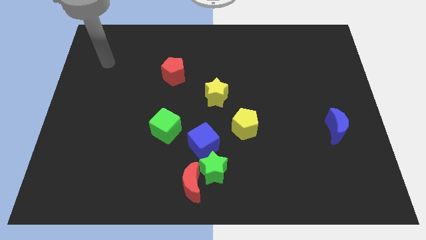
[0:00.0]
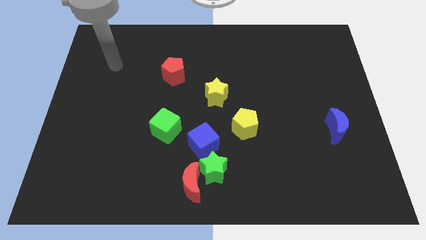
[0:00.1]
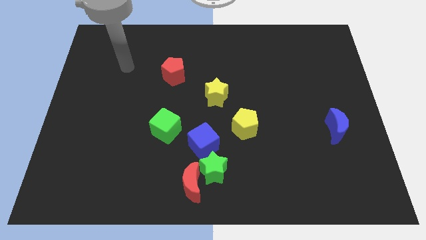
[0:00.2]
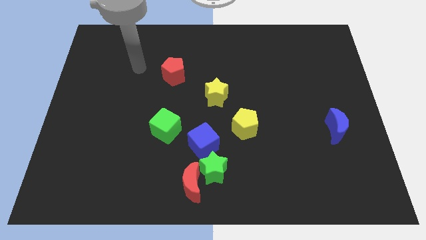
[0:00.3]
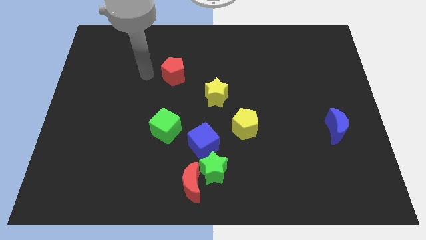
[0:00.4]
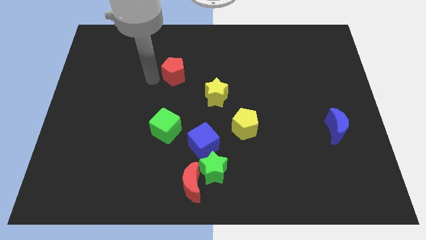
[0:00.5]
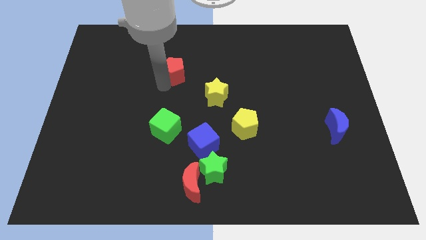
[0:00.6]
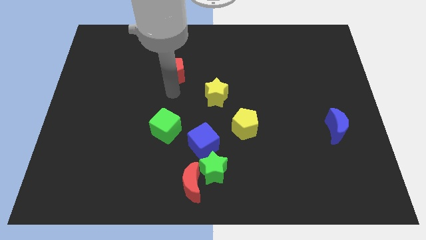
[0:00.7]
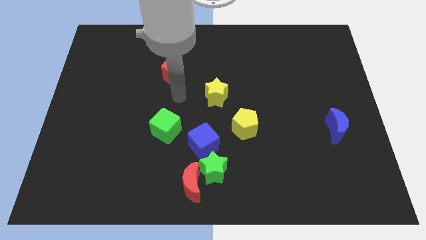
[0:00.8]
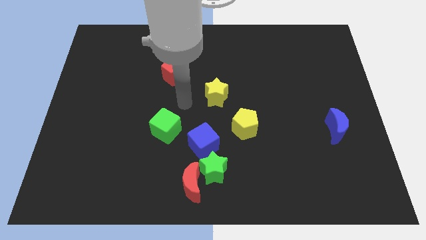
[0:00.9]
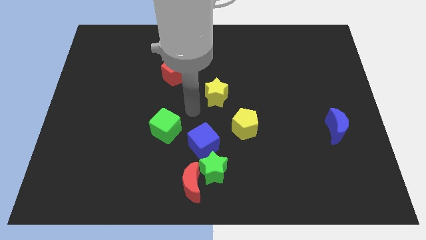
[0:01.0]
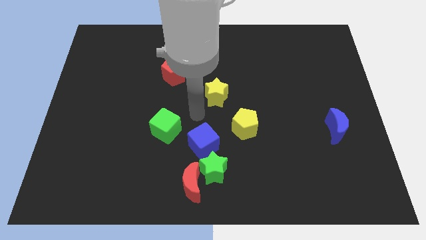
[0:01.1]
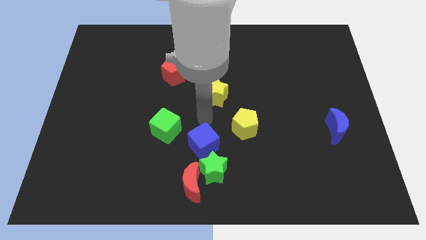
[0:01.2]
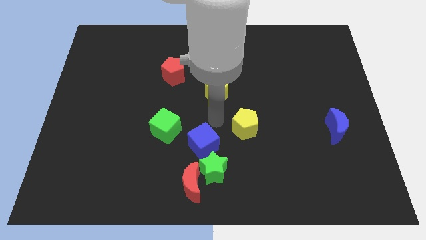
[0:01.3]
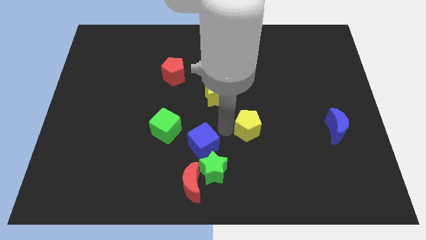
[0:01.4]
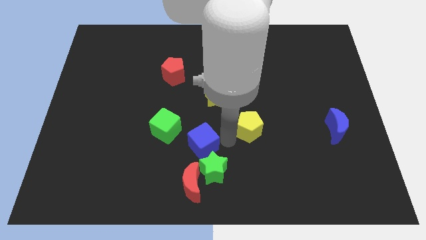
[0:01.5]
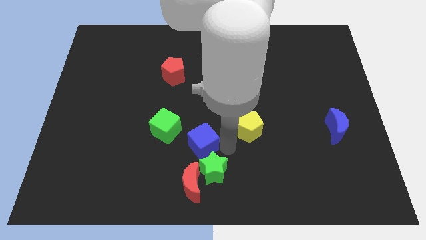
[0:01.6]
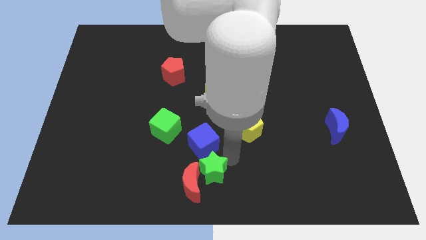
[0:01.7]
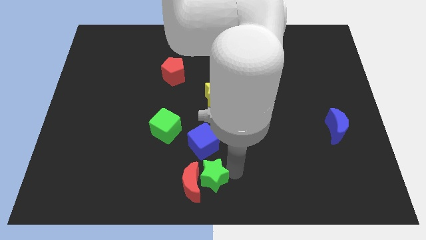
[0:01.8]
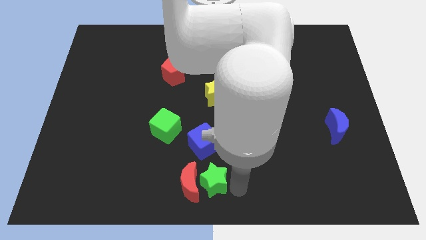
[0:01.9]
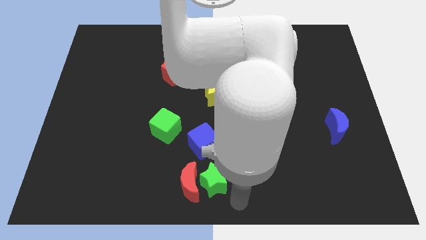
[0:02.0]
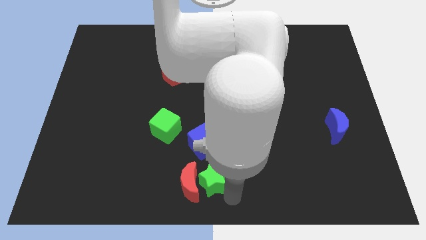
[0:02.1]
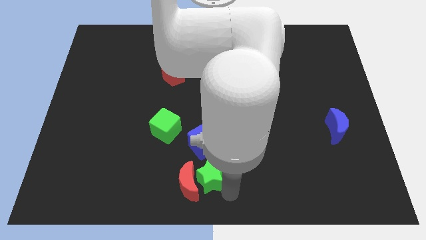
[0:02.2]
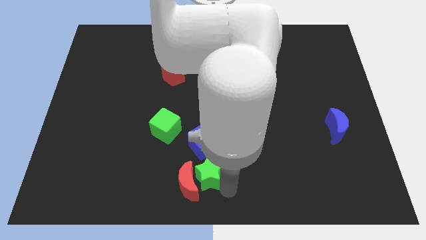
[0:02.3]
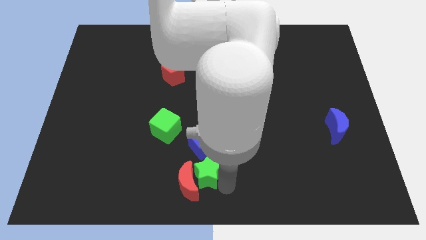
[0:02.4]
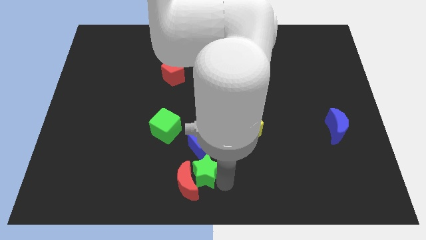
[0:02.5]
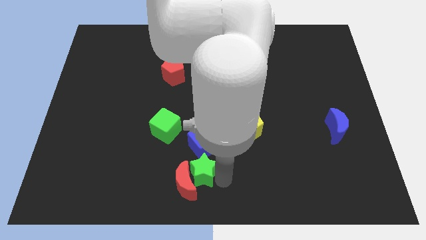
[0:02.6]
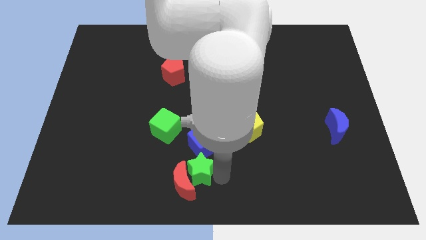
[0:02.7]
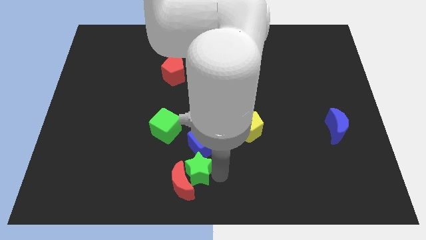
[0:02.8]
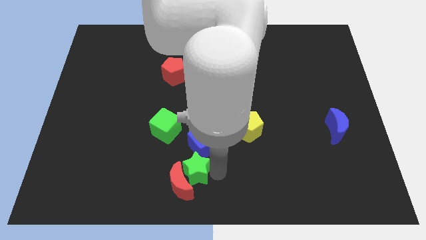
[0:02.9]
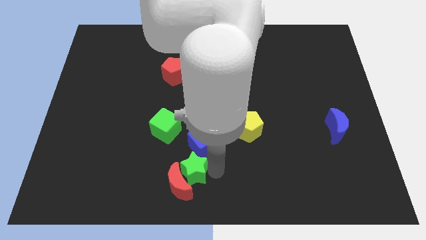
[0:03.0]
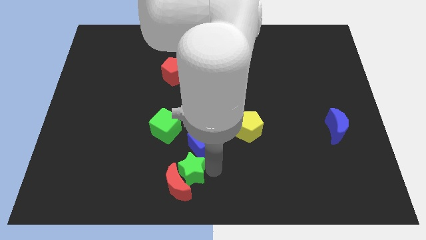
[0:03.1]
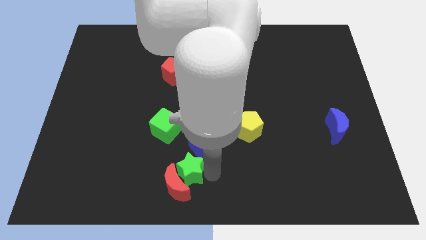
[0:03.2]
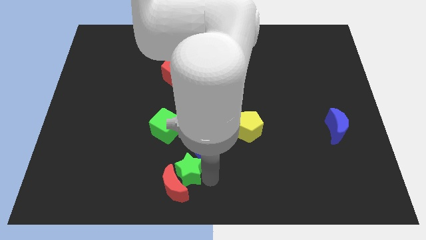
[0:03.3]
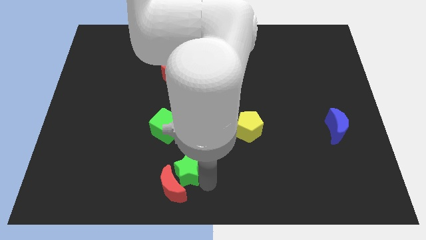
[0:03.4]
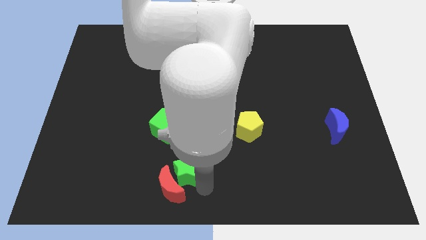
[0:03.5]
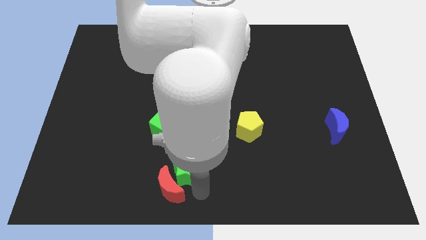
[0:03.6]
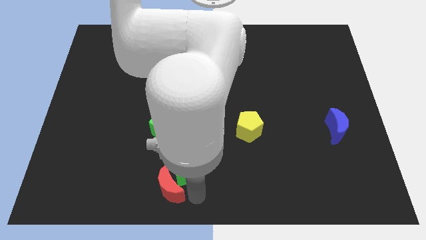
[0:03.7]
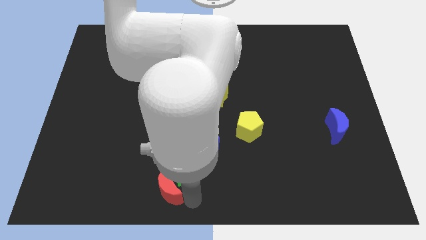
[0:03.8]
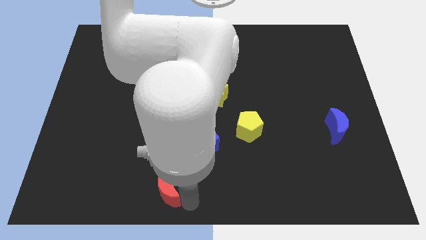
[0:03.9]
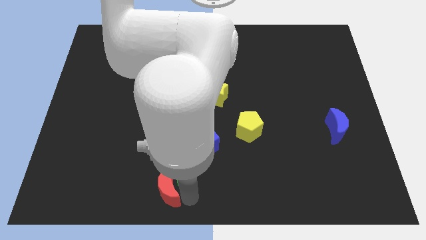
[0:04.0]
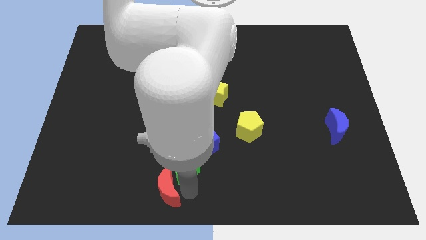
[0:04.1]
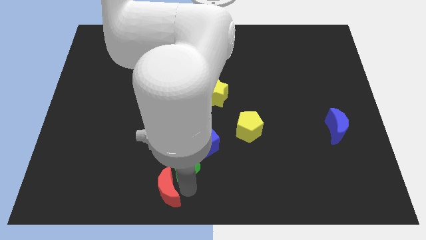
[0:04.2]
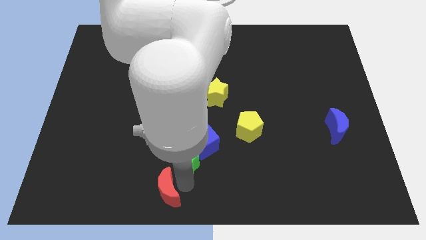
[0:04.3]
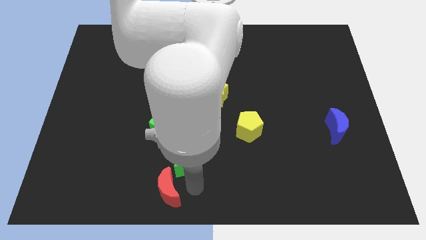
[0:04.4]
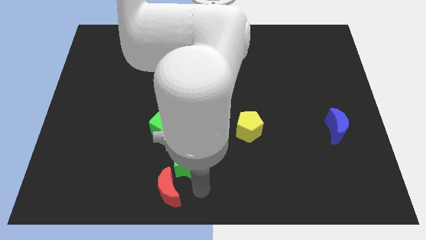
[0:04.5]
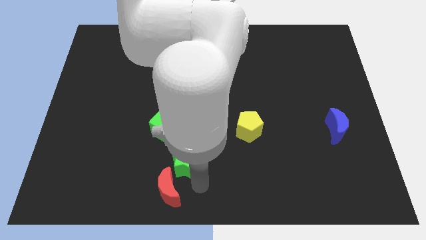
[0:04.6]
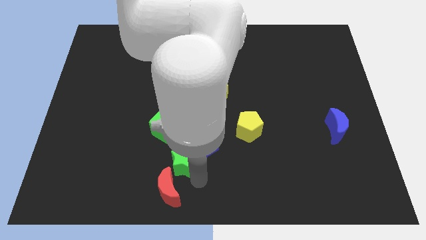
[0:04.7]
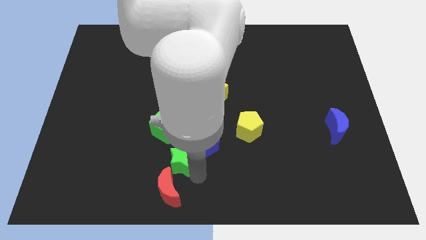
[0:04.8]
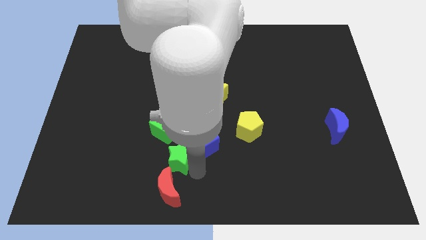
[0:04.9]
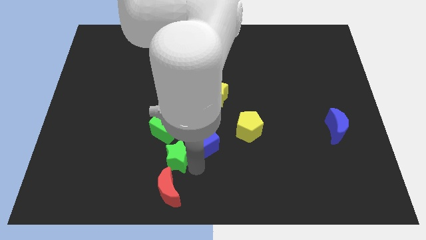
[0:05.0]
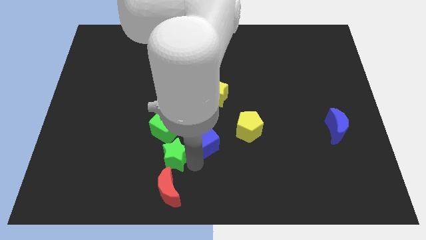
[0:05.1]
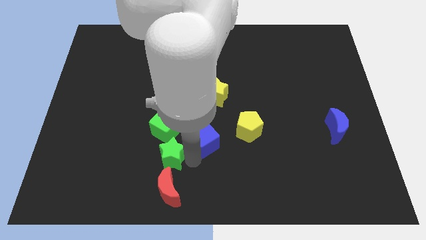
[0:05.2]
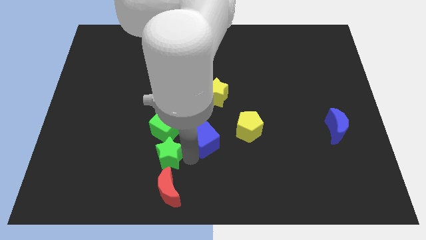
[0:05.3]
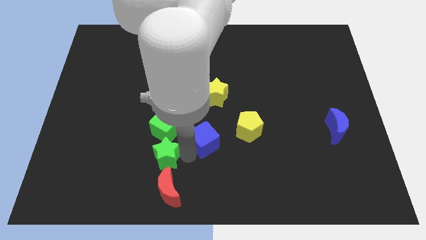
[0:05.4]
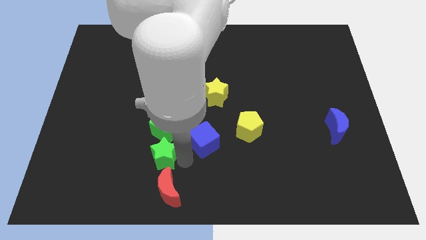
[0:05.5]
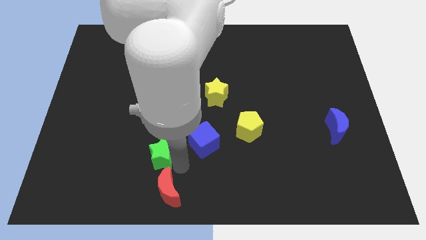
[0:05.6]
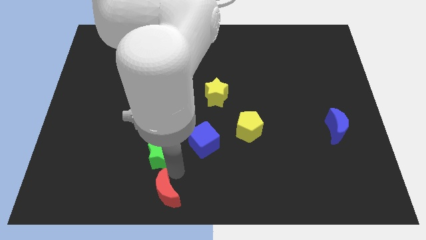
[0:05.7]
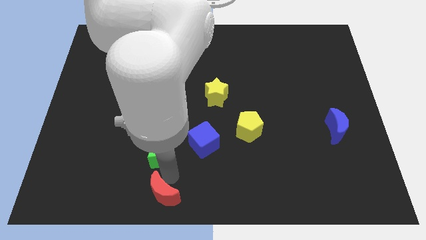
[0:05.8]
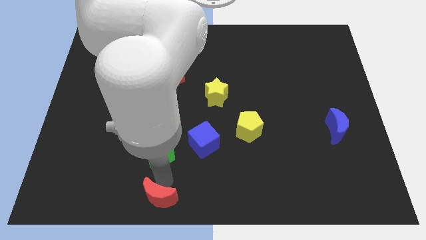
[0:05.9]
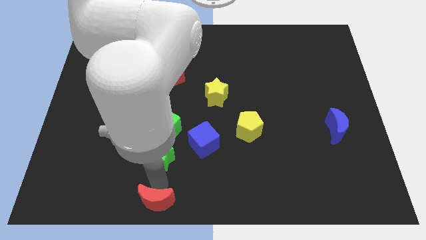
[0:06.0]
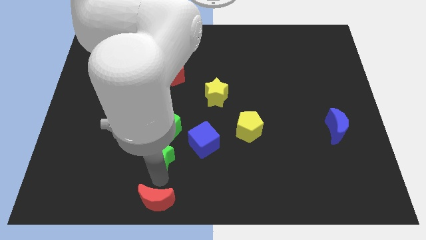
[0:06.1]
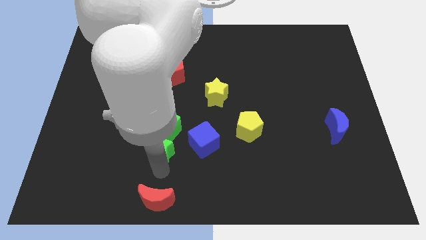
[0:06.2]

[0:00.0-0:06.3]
put the green star to the green cube

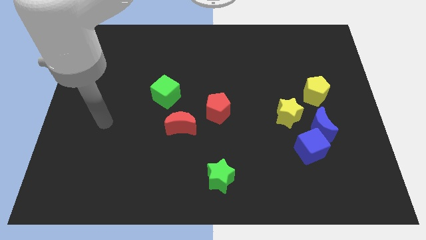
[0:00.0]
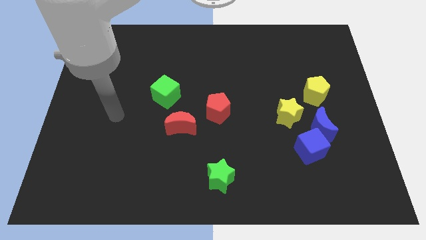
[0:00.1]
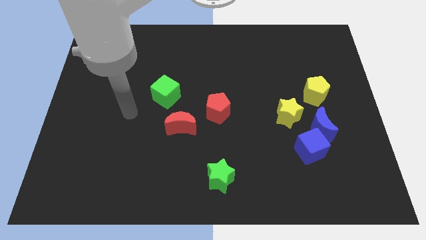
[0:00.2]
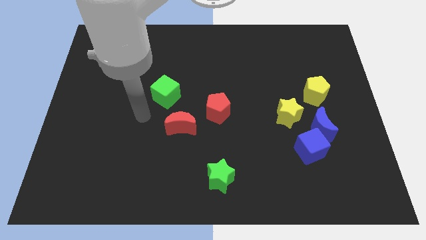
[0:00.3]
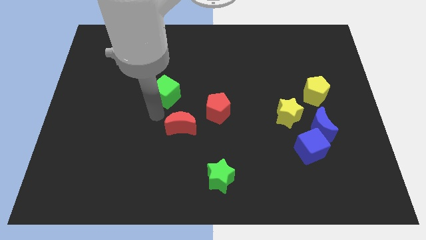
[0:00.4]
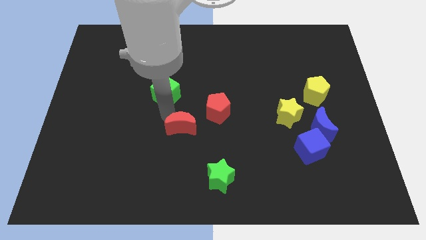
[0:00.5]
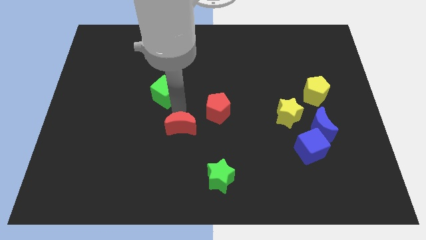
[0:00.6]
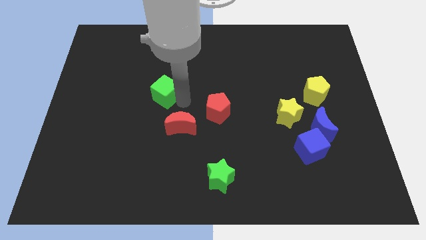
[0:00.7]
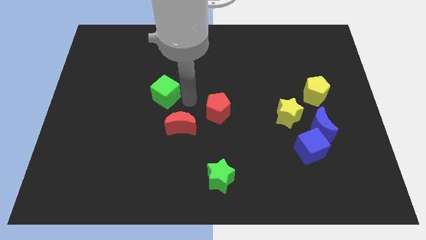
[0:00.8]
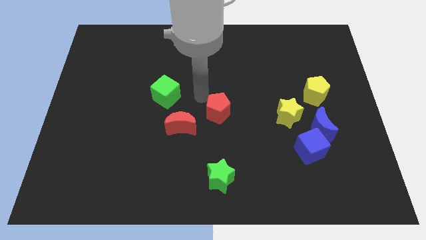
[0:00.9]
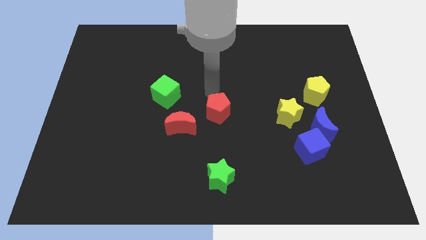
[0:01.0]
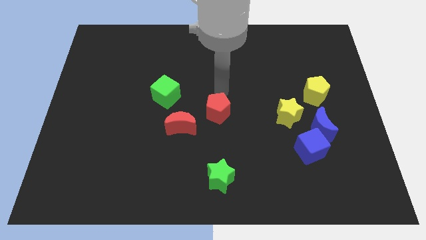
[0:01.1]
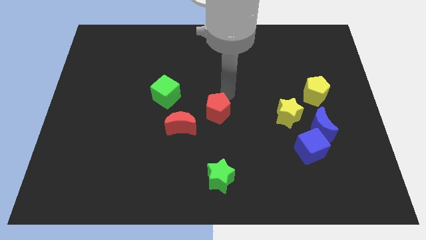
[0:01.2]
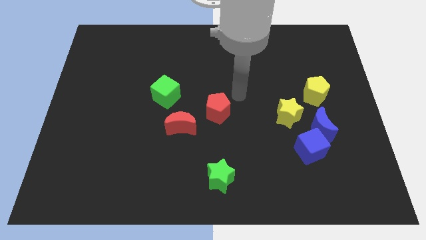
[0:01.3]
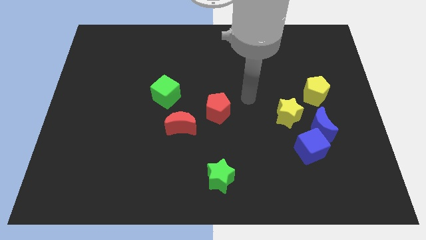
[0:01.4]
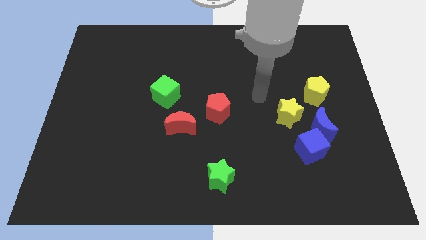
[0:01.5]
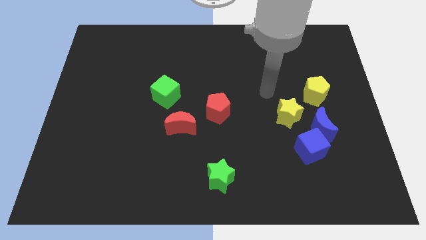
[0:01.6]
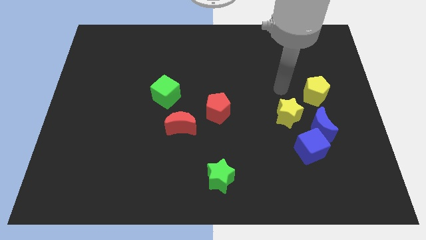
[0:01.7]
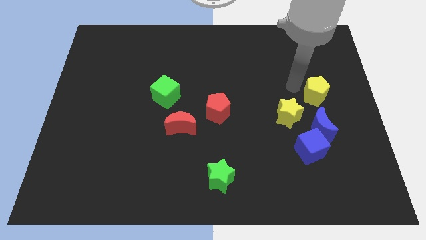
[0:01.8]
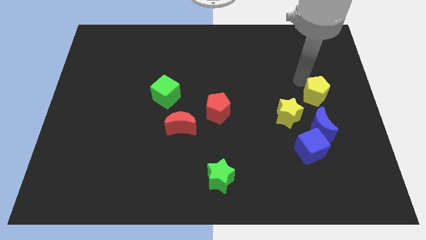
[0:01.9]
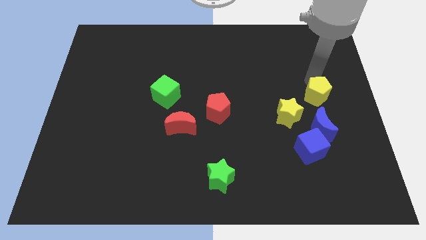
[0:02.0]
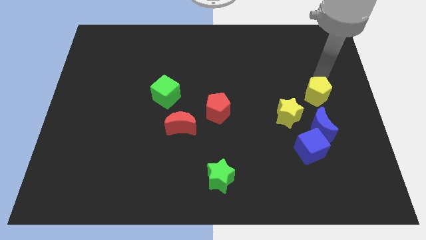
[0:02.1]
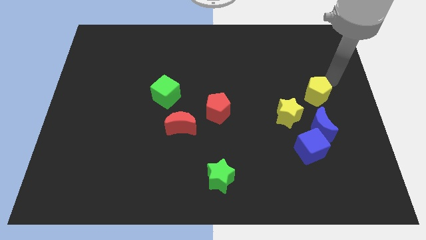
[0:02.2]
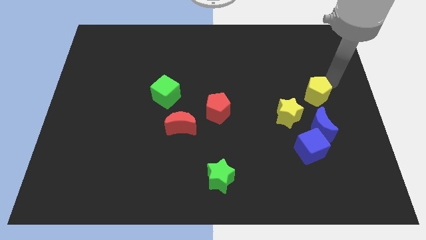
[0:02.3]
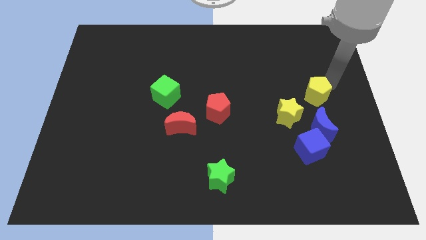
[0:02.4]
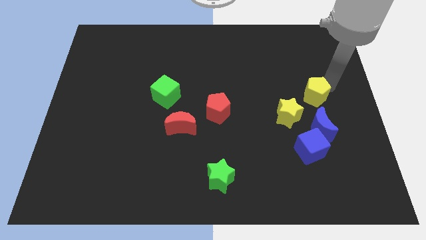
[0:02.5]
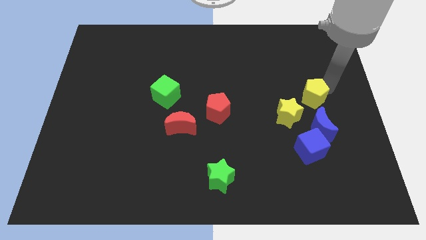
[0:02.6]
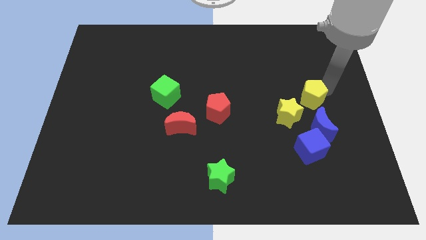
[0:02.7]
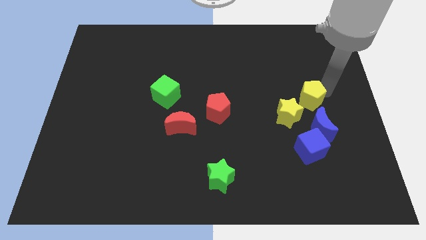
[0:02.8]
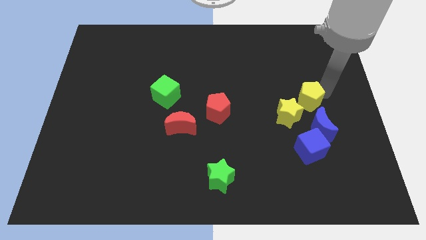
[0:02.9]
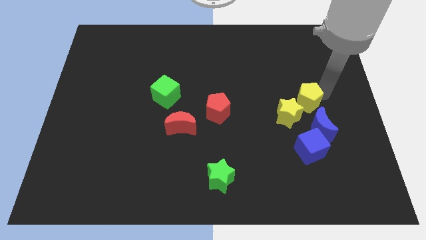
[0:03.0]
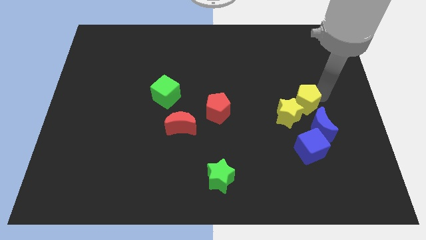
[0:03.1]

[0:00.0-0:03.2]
put the yellow pentagon towards the yellow star
